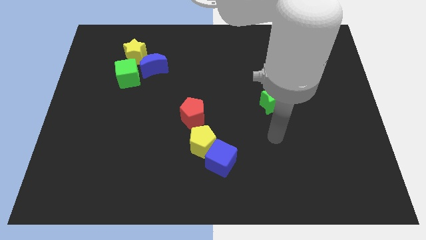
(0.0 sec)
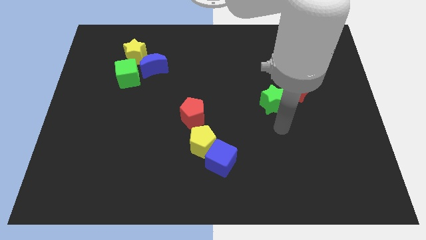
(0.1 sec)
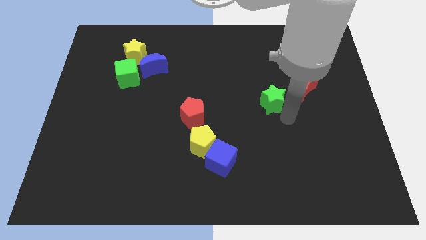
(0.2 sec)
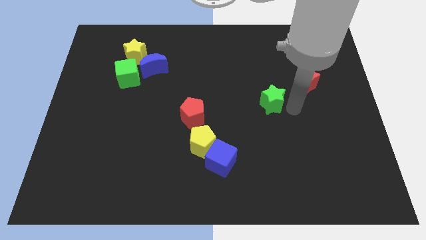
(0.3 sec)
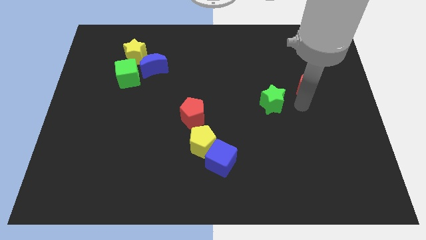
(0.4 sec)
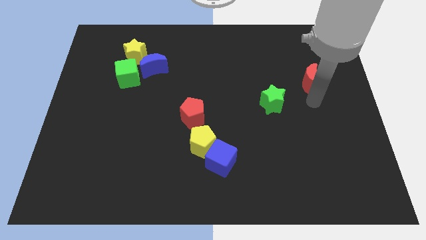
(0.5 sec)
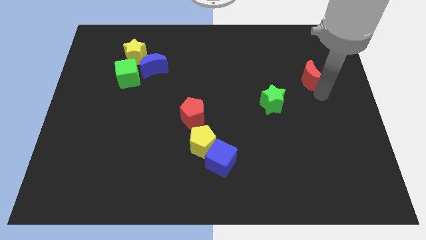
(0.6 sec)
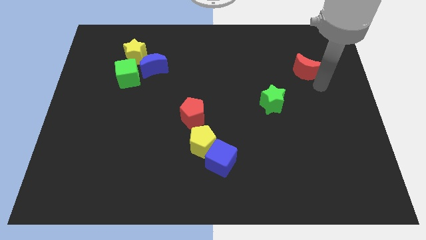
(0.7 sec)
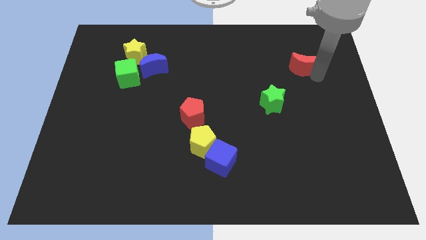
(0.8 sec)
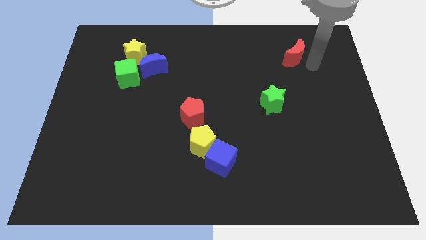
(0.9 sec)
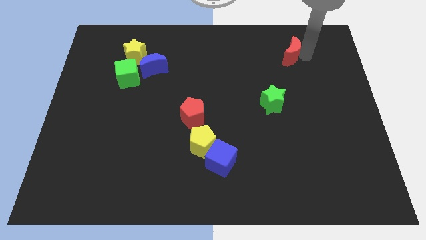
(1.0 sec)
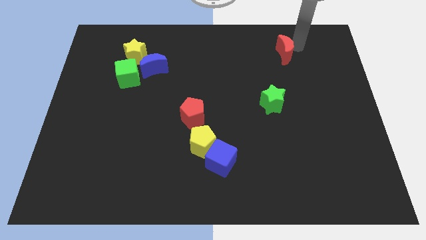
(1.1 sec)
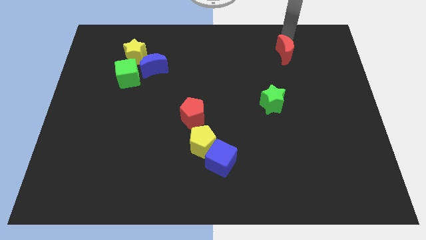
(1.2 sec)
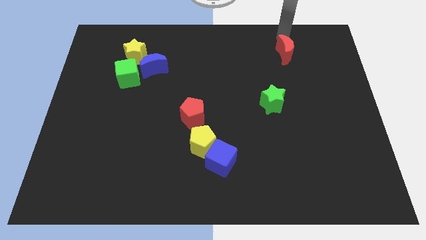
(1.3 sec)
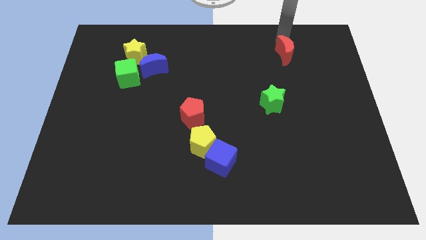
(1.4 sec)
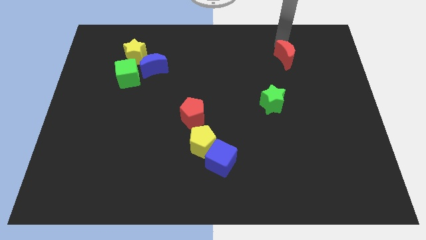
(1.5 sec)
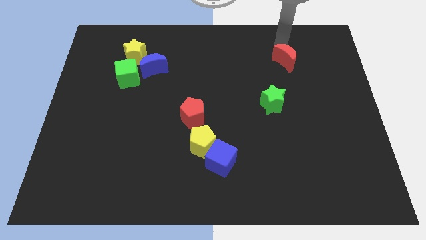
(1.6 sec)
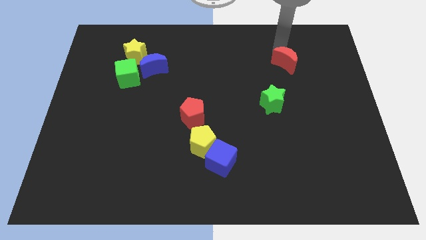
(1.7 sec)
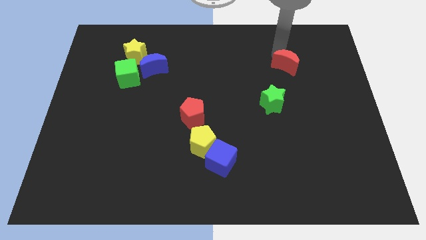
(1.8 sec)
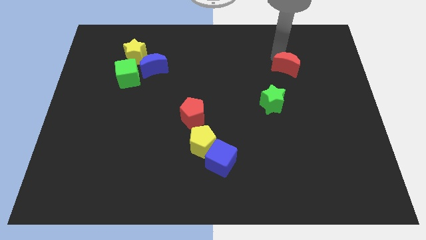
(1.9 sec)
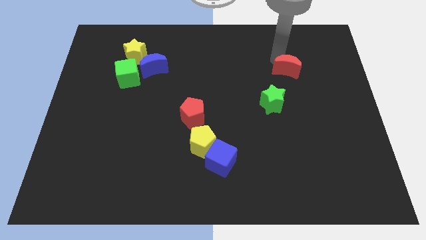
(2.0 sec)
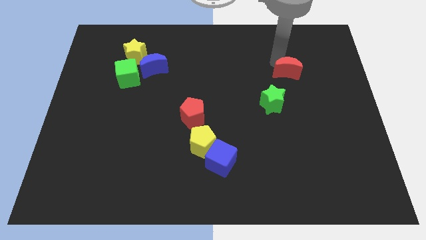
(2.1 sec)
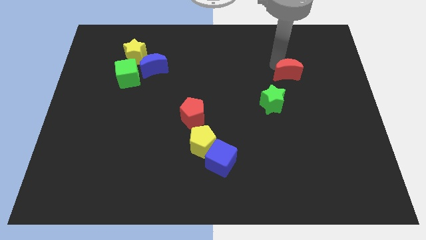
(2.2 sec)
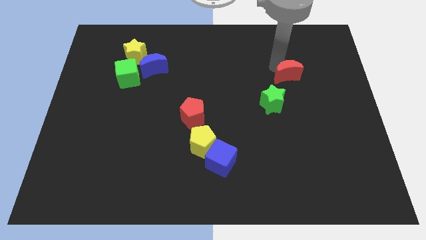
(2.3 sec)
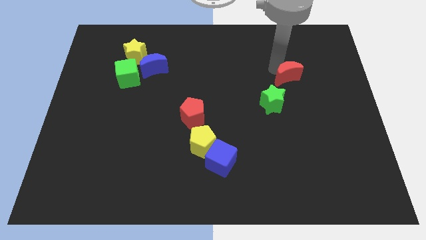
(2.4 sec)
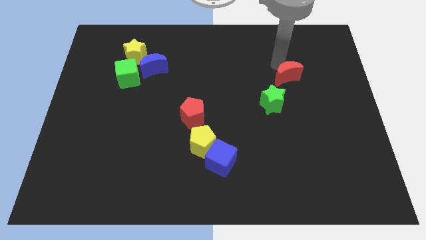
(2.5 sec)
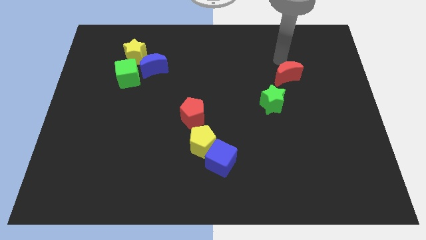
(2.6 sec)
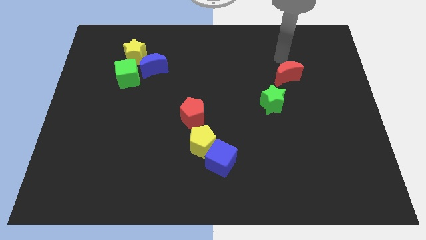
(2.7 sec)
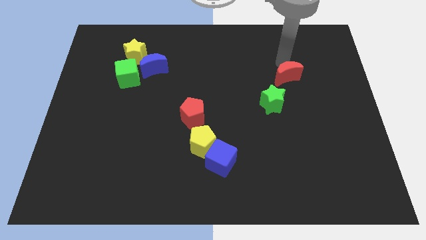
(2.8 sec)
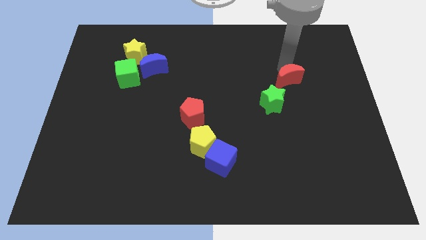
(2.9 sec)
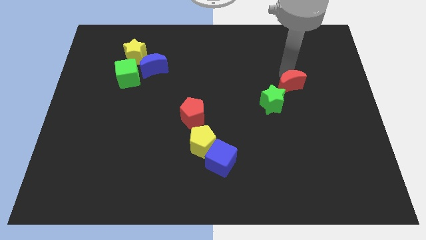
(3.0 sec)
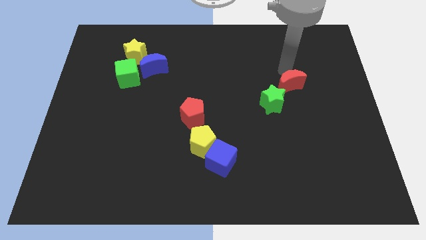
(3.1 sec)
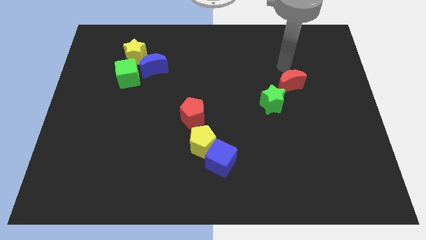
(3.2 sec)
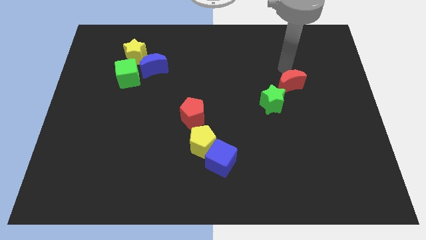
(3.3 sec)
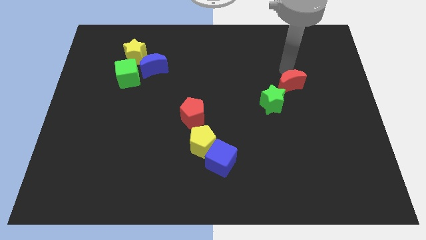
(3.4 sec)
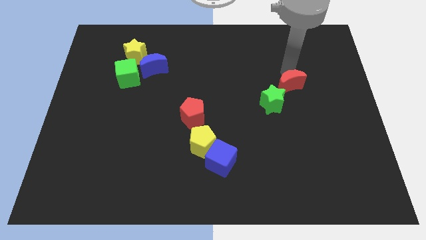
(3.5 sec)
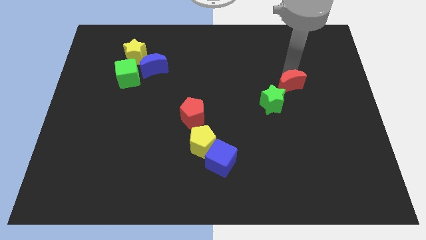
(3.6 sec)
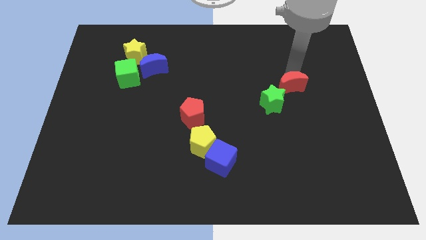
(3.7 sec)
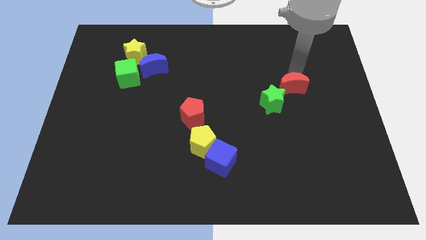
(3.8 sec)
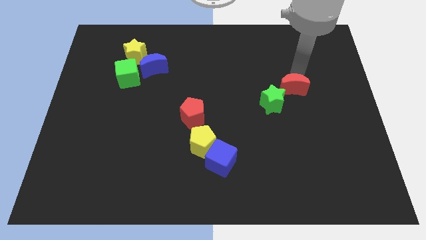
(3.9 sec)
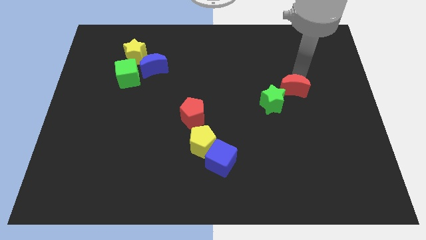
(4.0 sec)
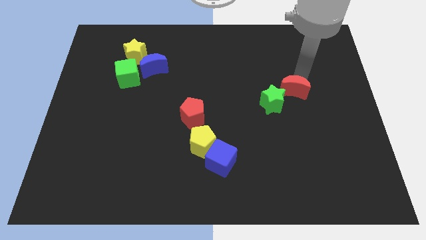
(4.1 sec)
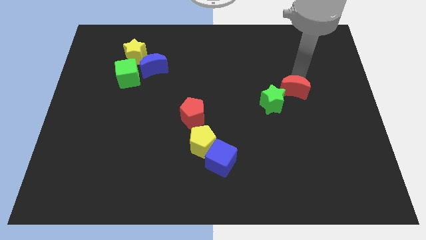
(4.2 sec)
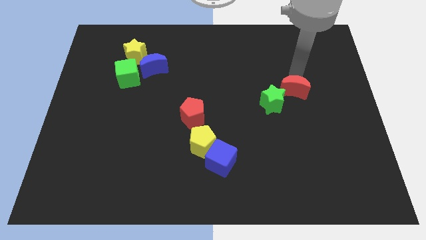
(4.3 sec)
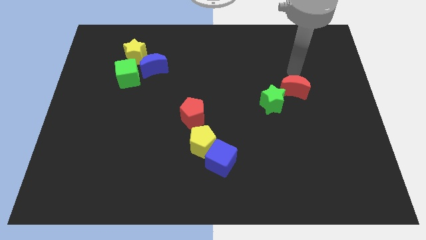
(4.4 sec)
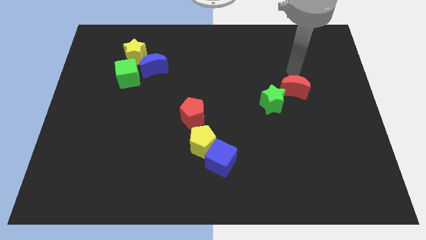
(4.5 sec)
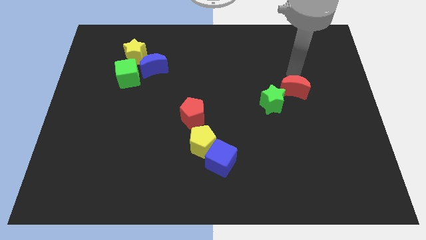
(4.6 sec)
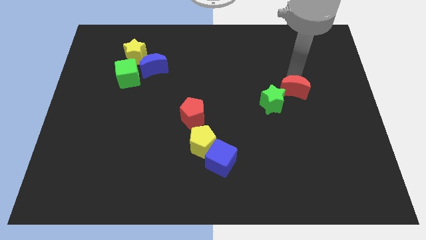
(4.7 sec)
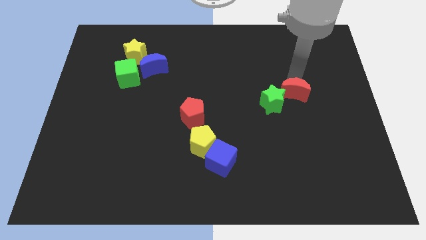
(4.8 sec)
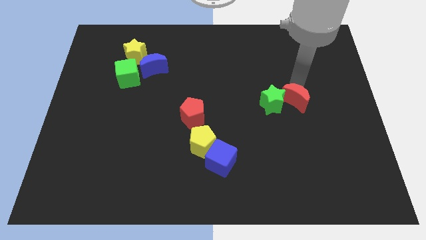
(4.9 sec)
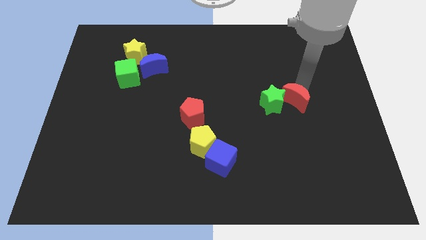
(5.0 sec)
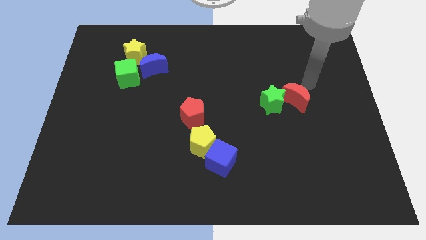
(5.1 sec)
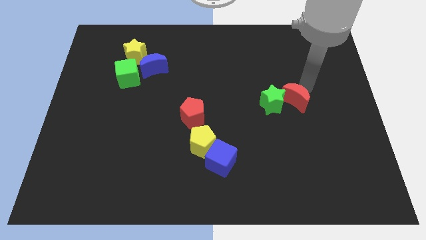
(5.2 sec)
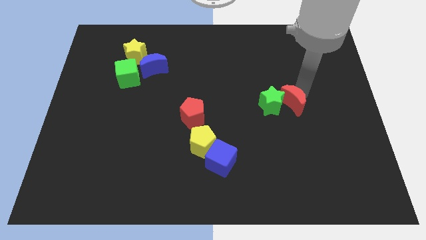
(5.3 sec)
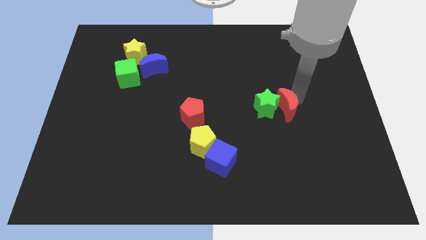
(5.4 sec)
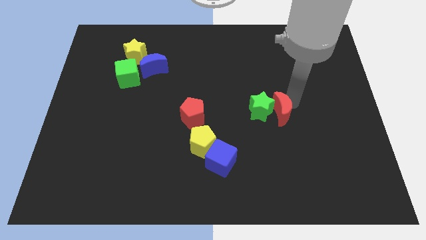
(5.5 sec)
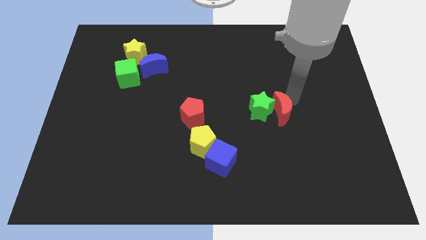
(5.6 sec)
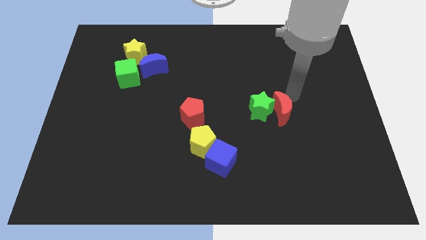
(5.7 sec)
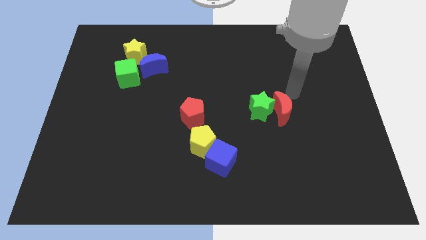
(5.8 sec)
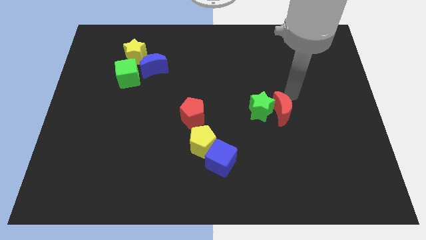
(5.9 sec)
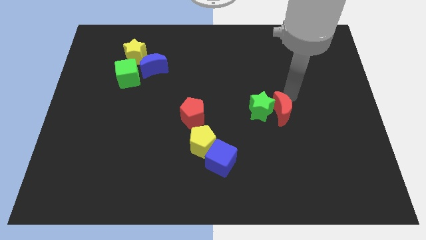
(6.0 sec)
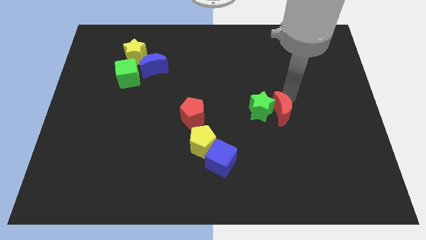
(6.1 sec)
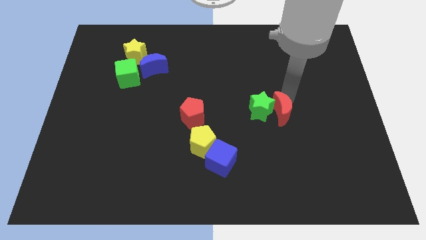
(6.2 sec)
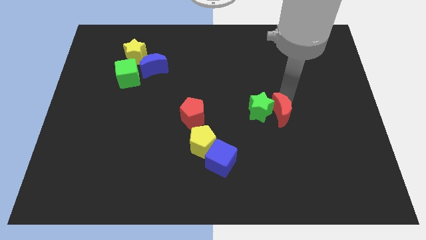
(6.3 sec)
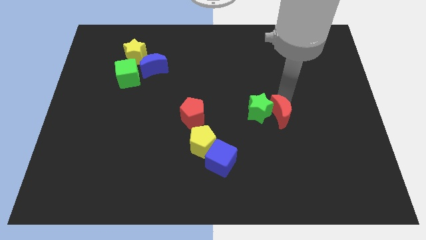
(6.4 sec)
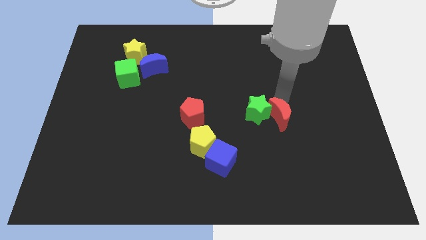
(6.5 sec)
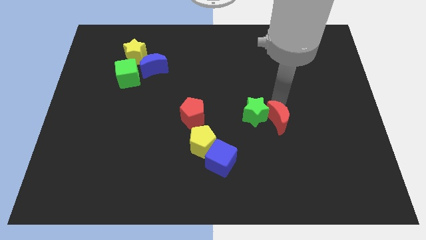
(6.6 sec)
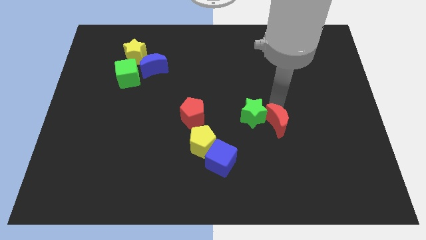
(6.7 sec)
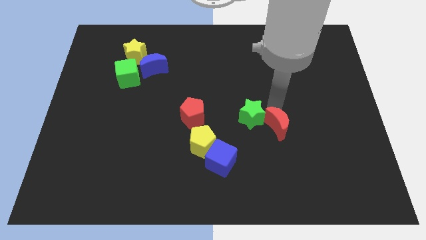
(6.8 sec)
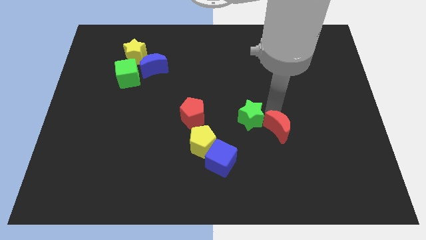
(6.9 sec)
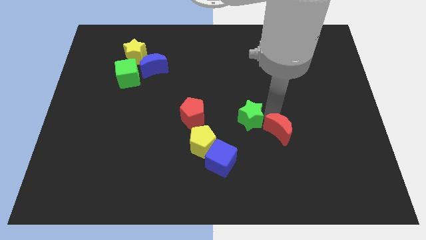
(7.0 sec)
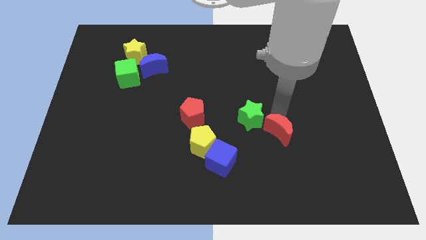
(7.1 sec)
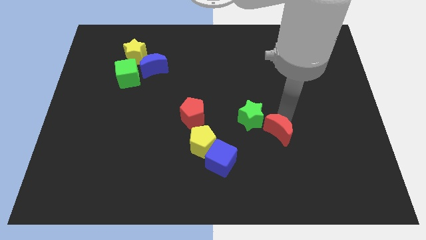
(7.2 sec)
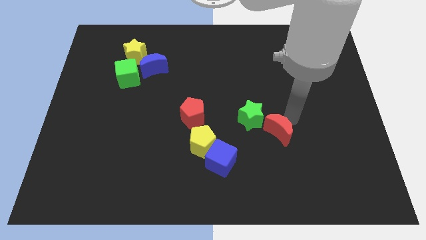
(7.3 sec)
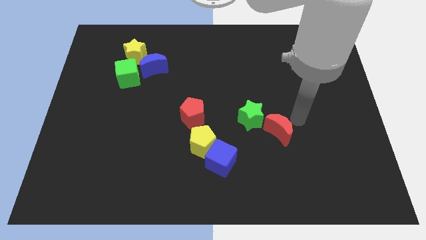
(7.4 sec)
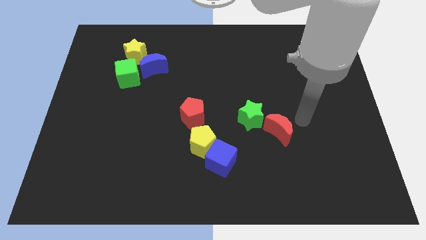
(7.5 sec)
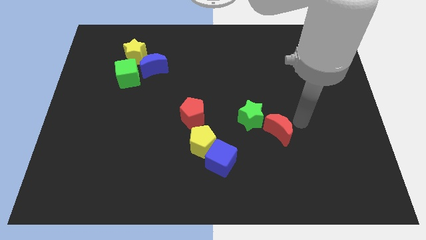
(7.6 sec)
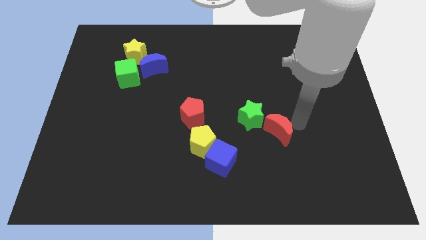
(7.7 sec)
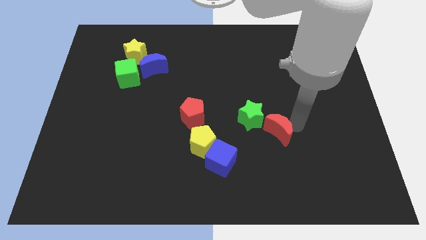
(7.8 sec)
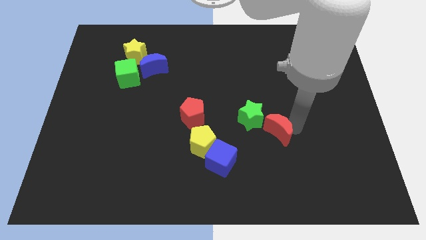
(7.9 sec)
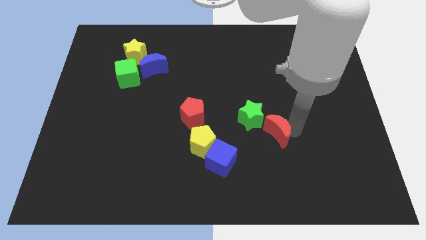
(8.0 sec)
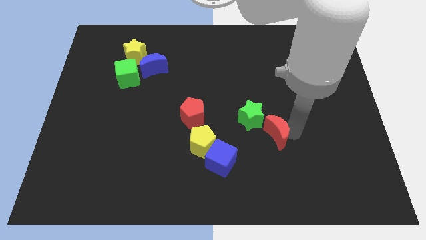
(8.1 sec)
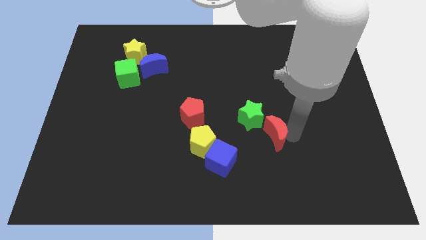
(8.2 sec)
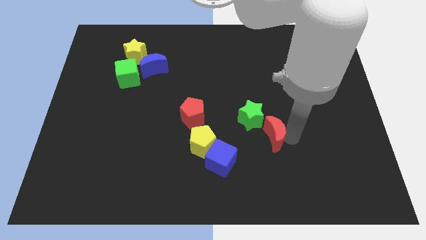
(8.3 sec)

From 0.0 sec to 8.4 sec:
put the red moon to the right of the yellow pentagon
